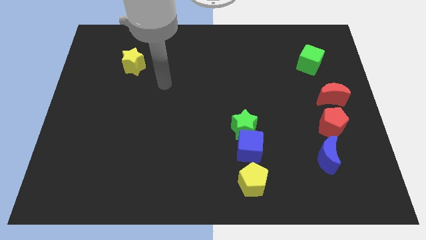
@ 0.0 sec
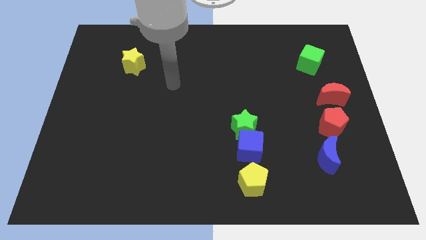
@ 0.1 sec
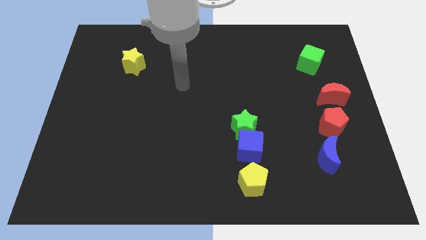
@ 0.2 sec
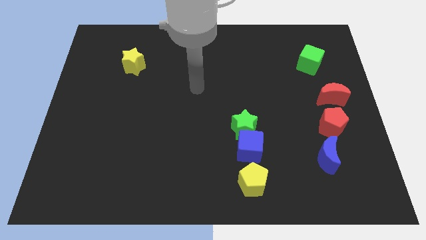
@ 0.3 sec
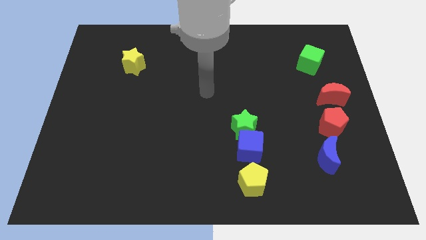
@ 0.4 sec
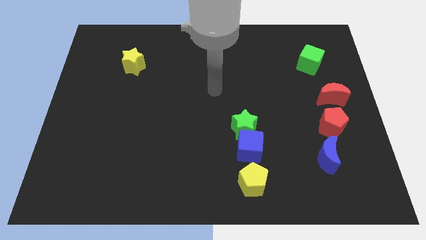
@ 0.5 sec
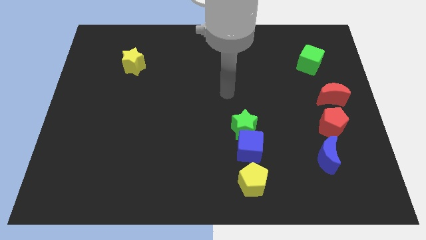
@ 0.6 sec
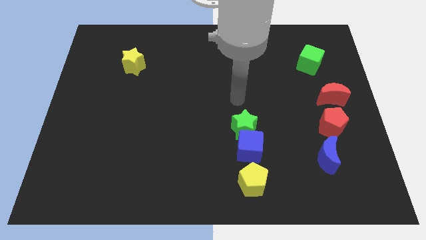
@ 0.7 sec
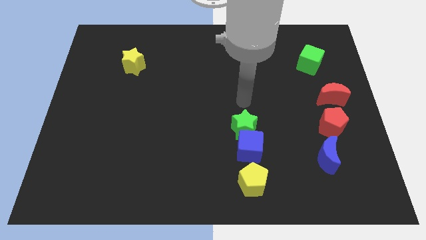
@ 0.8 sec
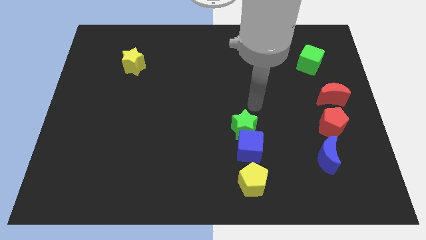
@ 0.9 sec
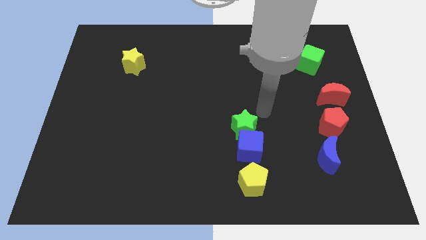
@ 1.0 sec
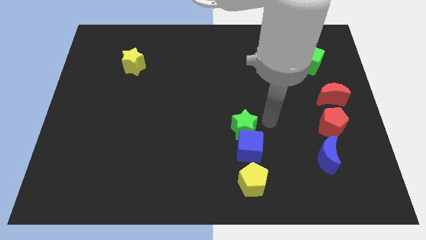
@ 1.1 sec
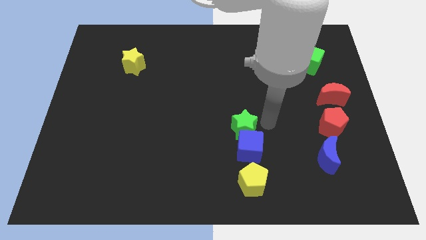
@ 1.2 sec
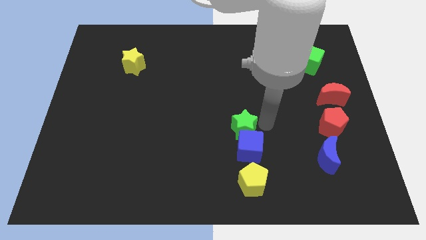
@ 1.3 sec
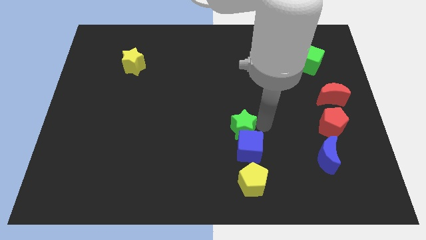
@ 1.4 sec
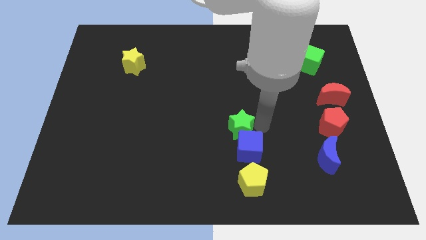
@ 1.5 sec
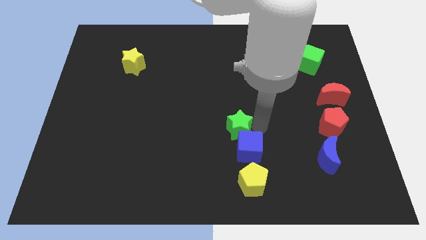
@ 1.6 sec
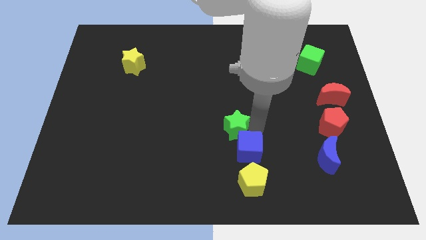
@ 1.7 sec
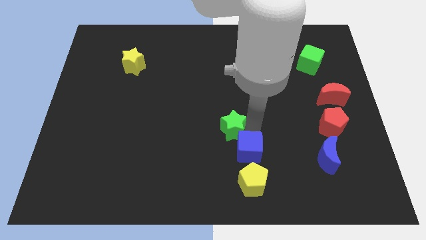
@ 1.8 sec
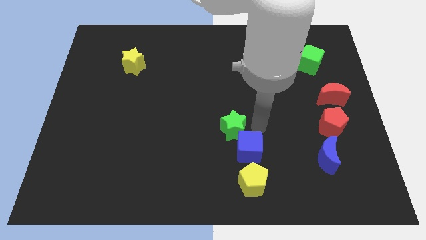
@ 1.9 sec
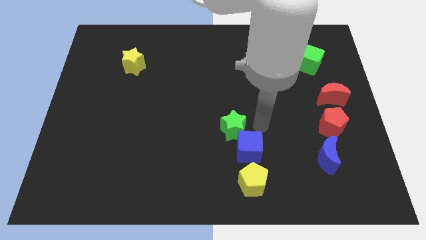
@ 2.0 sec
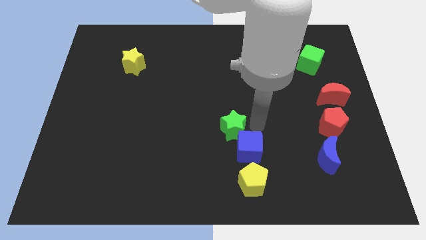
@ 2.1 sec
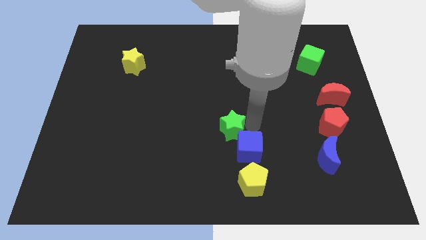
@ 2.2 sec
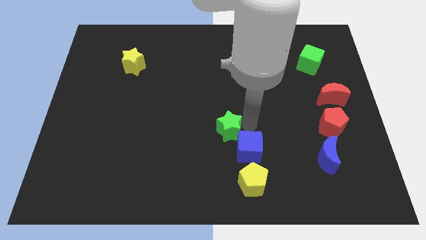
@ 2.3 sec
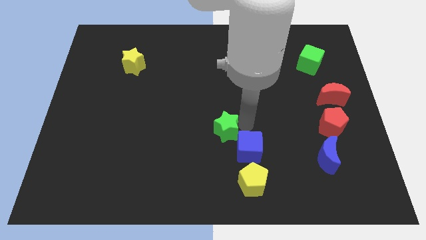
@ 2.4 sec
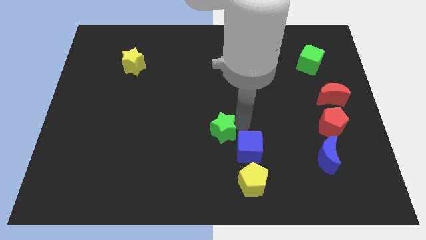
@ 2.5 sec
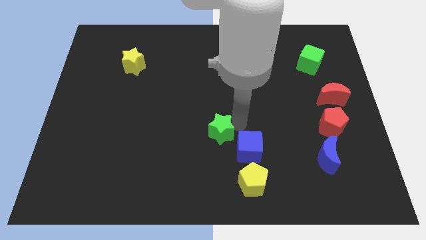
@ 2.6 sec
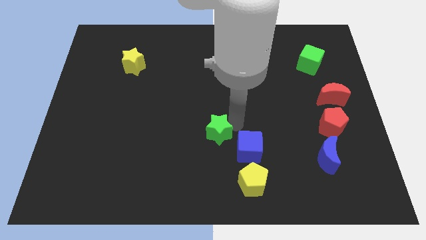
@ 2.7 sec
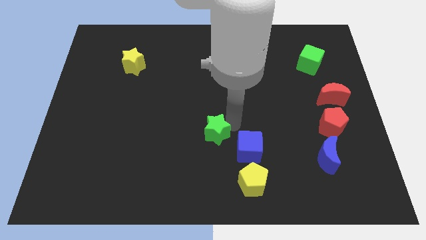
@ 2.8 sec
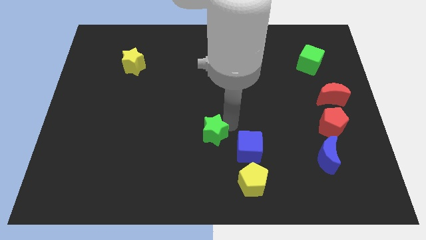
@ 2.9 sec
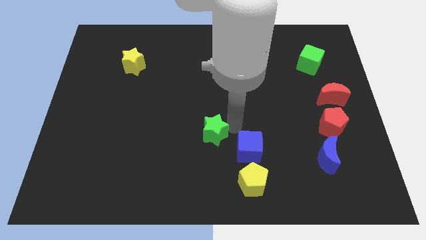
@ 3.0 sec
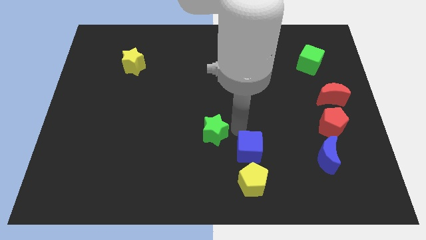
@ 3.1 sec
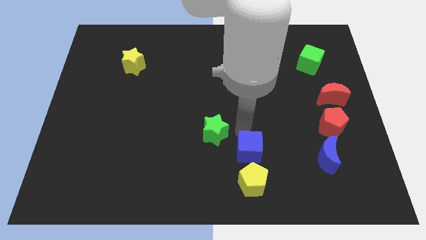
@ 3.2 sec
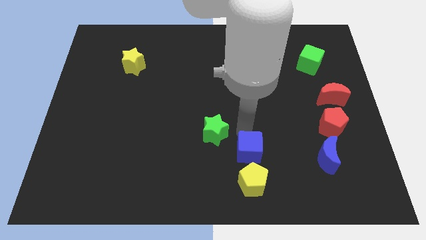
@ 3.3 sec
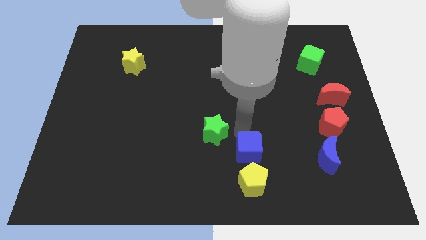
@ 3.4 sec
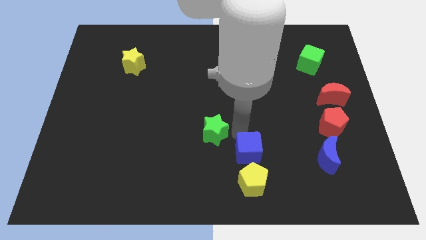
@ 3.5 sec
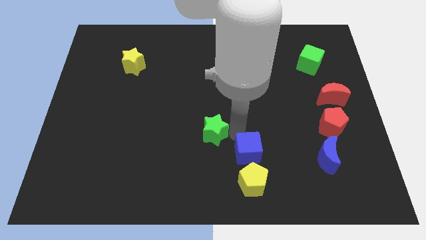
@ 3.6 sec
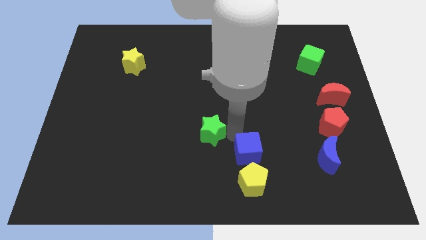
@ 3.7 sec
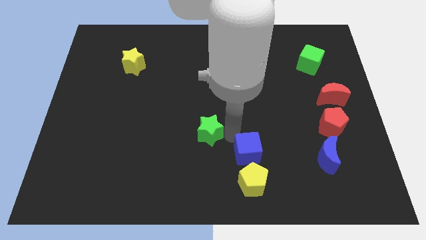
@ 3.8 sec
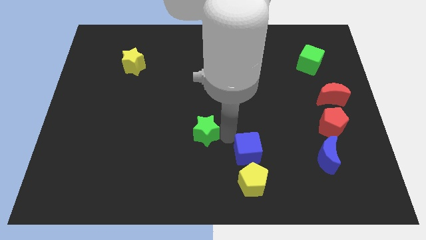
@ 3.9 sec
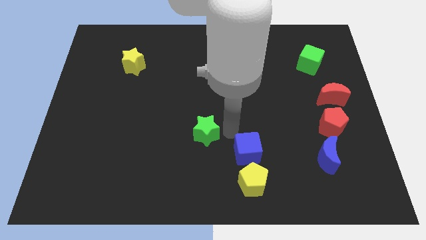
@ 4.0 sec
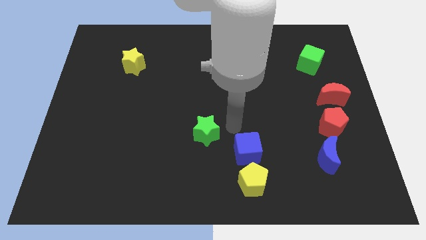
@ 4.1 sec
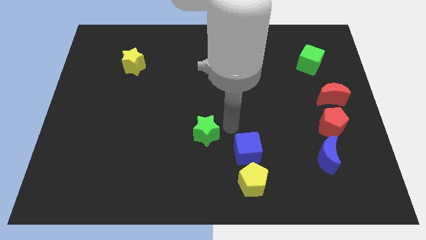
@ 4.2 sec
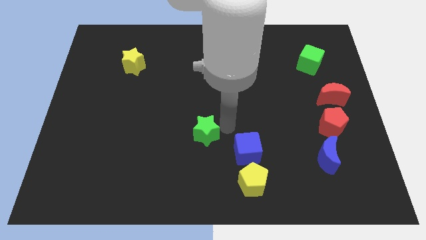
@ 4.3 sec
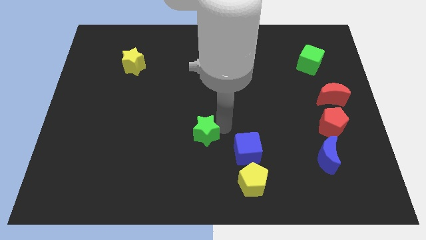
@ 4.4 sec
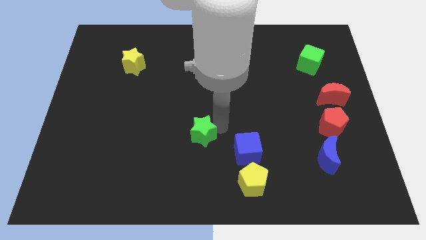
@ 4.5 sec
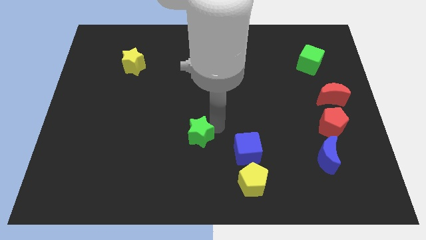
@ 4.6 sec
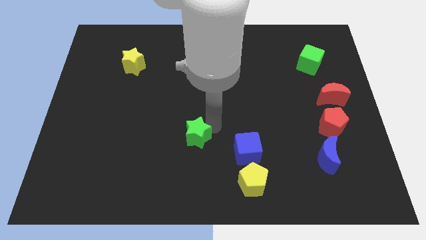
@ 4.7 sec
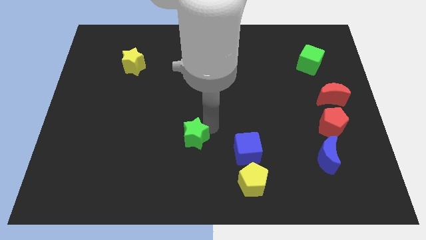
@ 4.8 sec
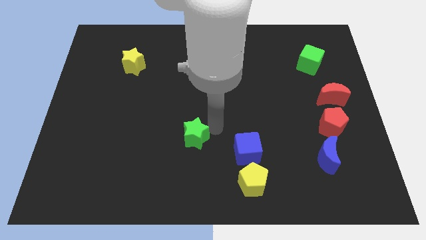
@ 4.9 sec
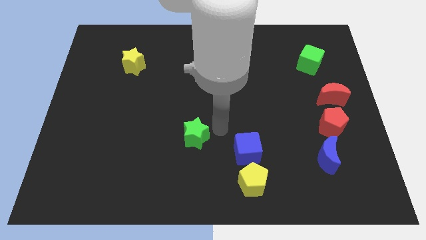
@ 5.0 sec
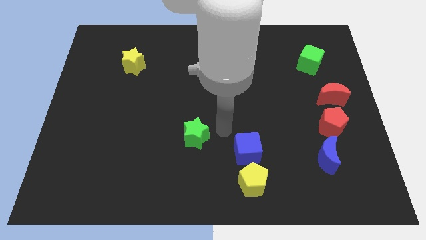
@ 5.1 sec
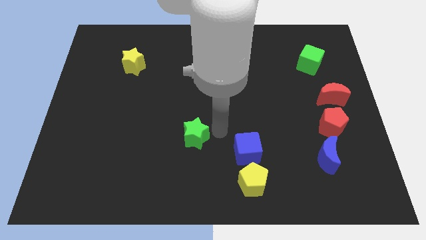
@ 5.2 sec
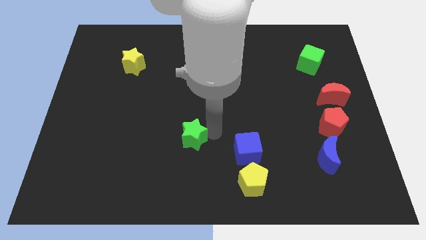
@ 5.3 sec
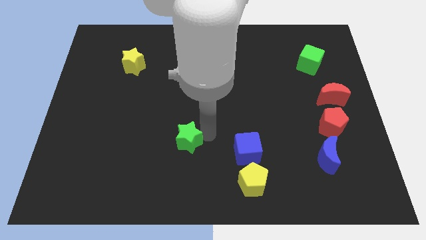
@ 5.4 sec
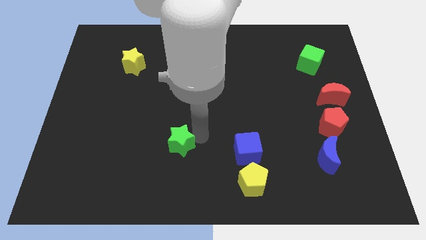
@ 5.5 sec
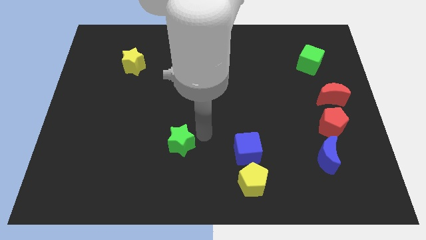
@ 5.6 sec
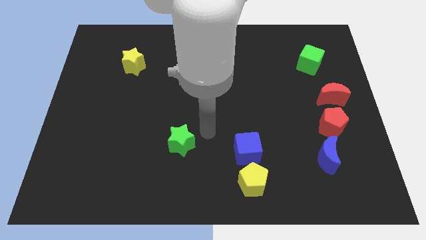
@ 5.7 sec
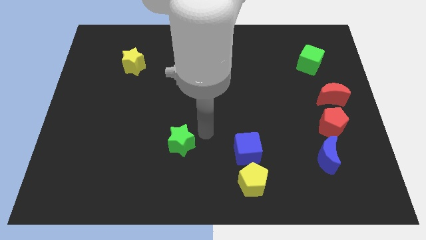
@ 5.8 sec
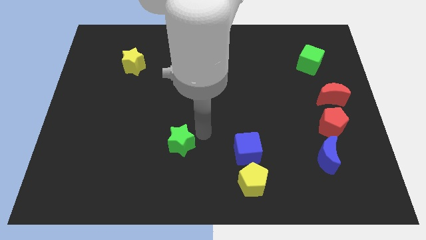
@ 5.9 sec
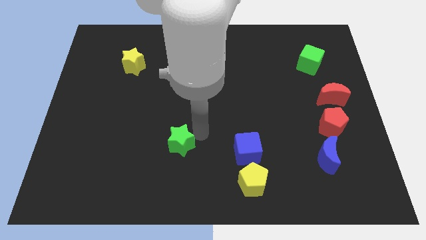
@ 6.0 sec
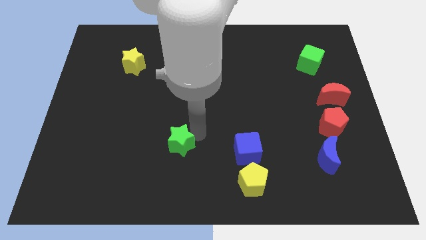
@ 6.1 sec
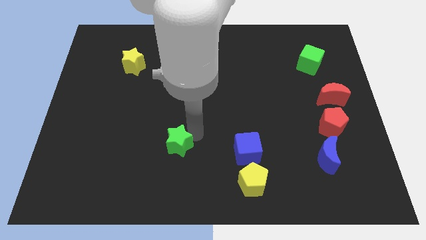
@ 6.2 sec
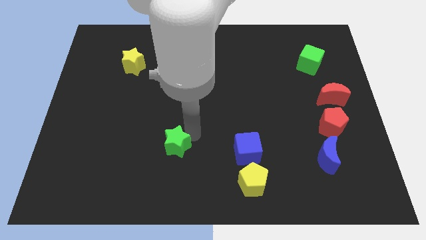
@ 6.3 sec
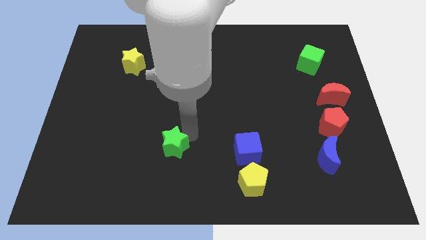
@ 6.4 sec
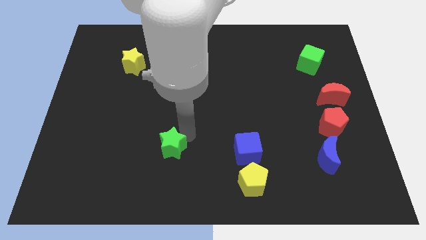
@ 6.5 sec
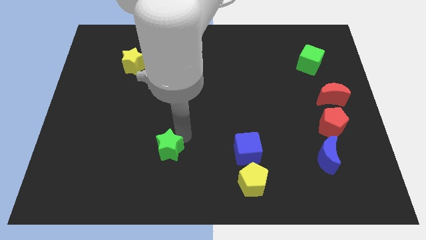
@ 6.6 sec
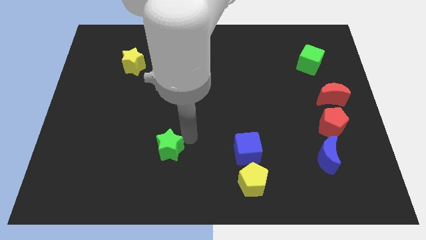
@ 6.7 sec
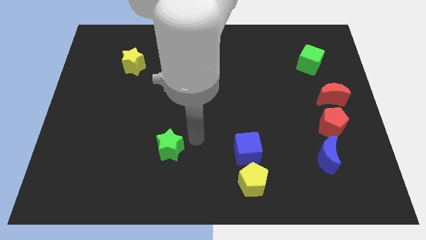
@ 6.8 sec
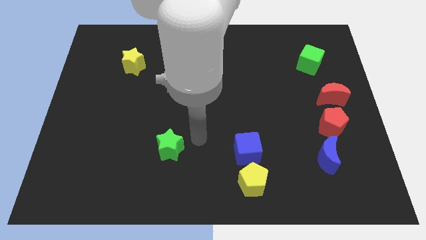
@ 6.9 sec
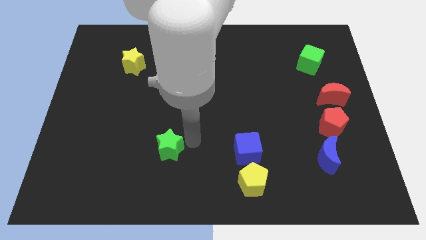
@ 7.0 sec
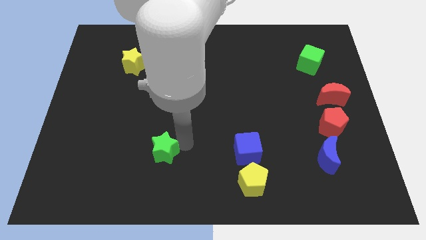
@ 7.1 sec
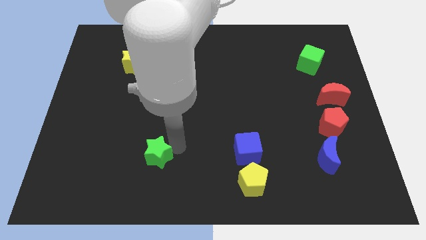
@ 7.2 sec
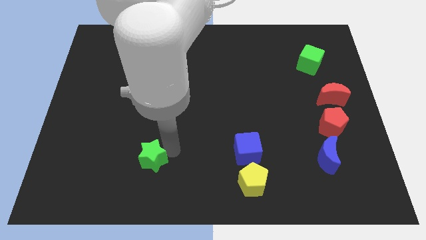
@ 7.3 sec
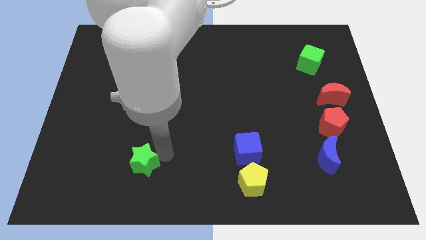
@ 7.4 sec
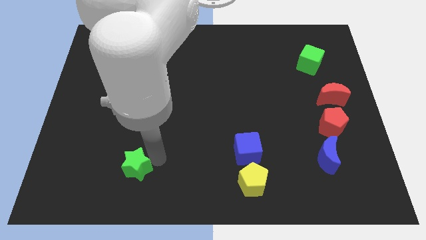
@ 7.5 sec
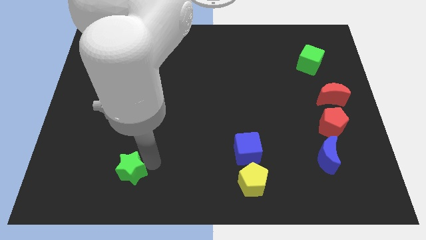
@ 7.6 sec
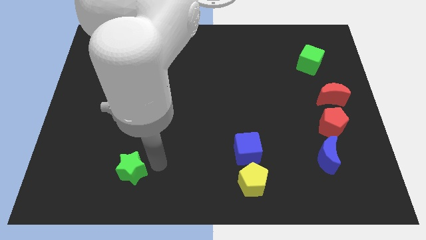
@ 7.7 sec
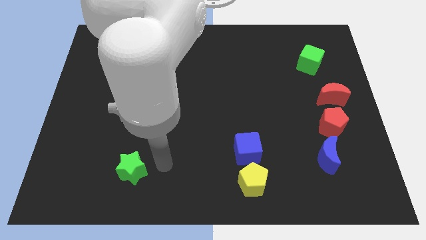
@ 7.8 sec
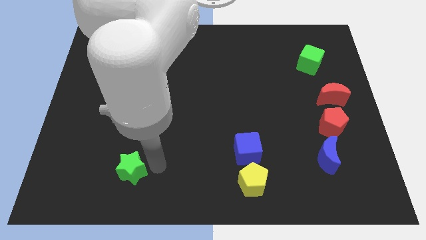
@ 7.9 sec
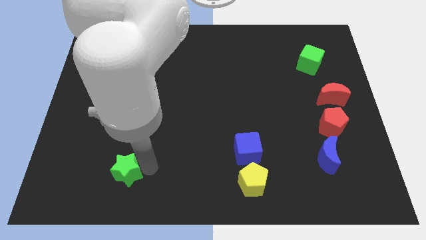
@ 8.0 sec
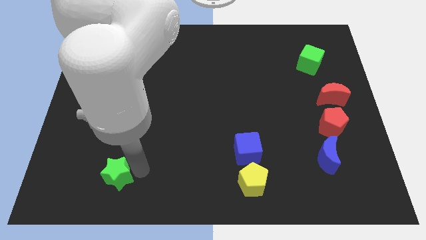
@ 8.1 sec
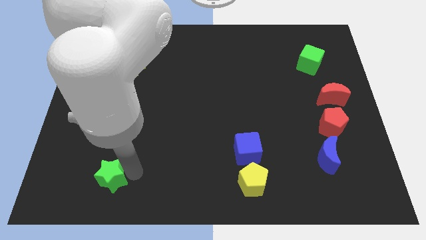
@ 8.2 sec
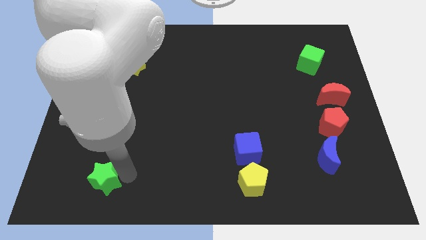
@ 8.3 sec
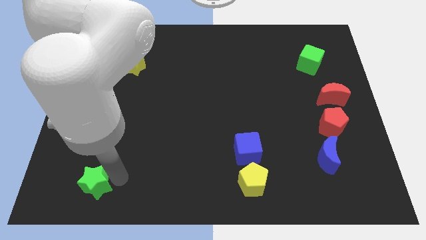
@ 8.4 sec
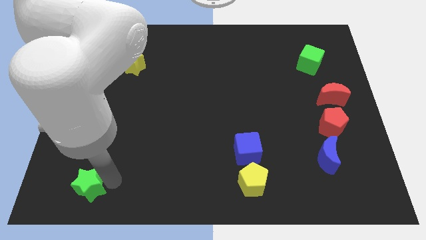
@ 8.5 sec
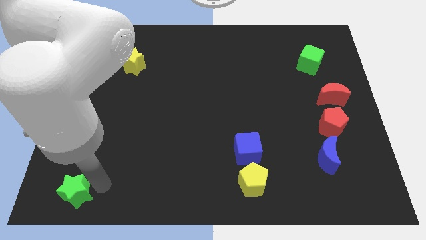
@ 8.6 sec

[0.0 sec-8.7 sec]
push the green star to the lower left corner
